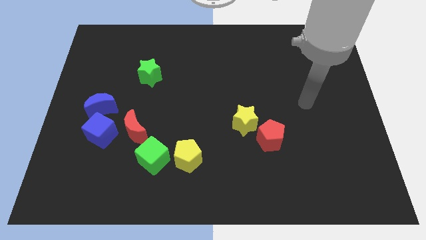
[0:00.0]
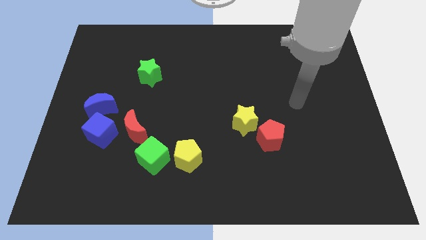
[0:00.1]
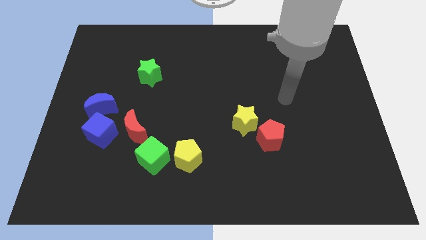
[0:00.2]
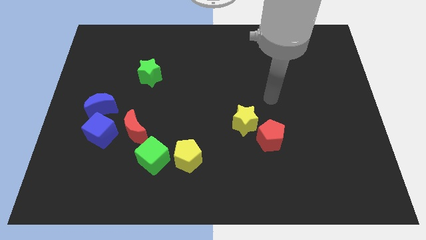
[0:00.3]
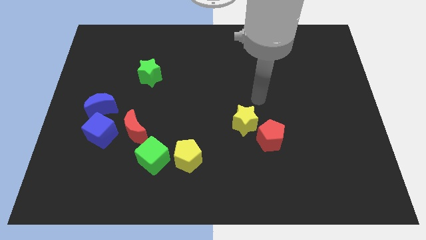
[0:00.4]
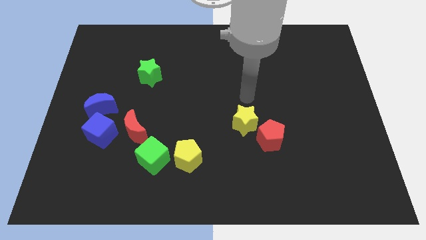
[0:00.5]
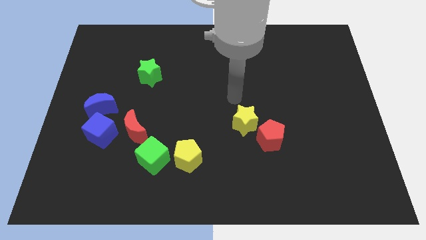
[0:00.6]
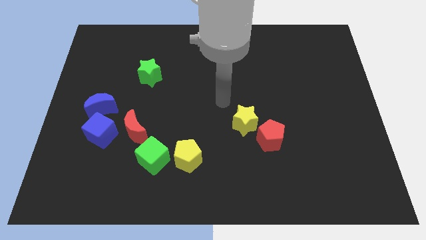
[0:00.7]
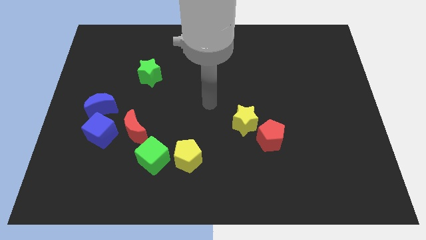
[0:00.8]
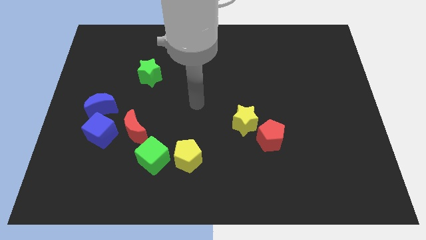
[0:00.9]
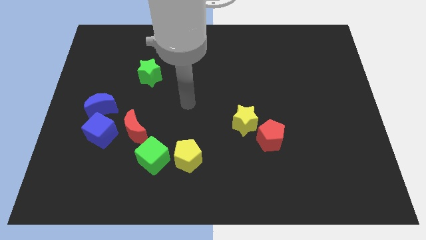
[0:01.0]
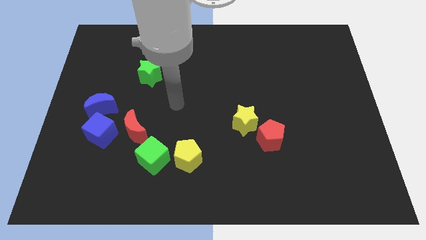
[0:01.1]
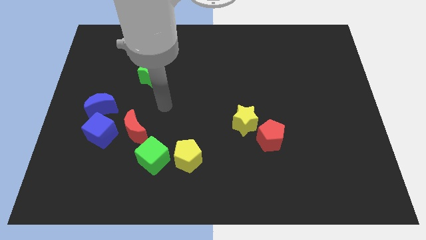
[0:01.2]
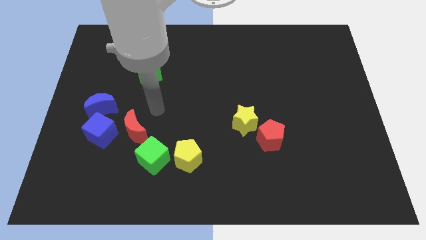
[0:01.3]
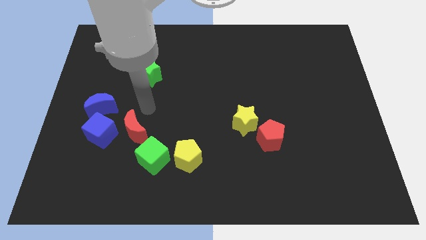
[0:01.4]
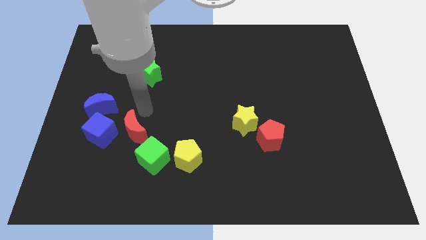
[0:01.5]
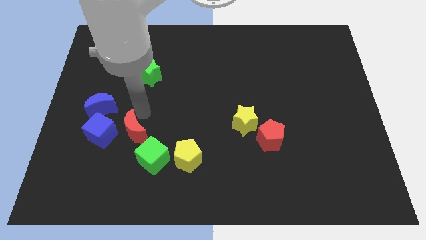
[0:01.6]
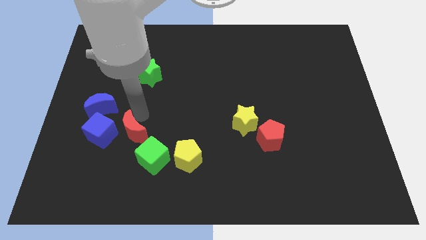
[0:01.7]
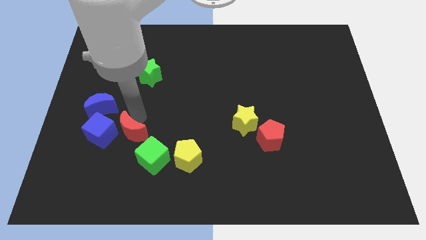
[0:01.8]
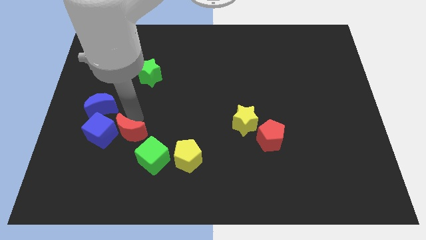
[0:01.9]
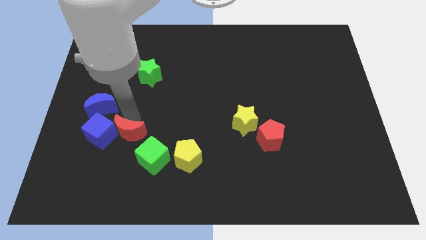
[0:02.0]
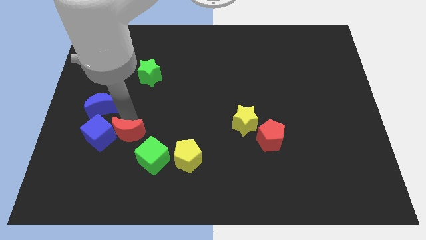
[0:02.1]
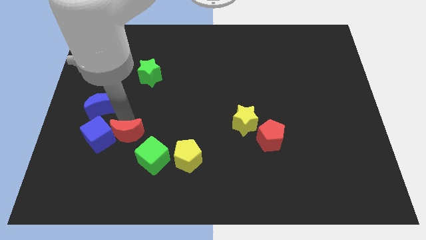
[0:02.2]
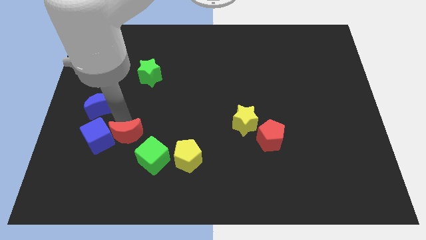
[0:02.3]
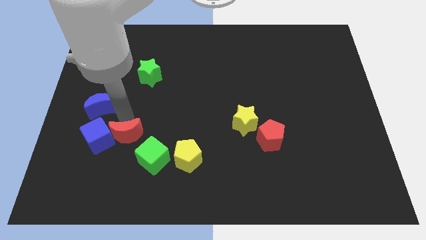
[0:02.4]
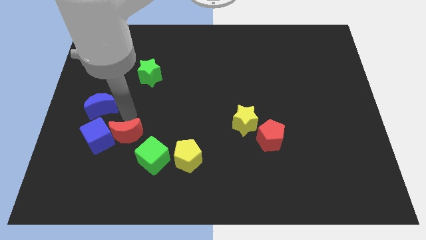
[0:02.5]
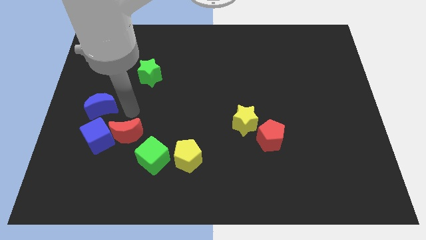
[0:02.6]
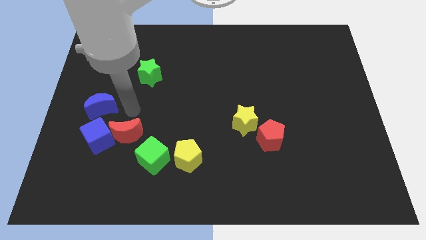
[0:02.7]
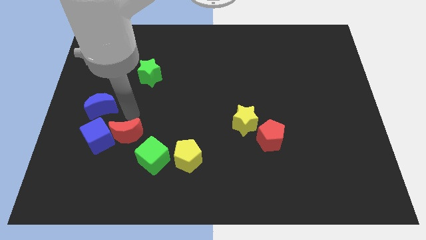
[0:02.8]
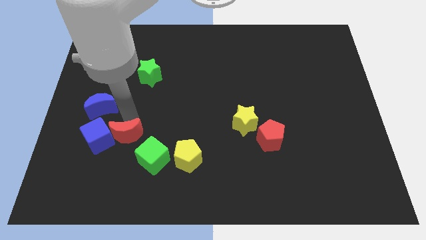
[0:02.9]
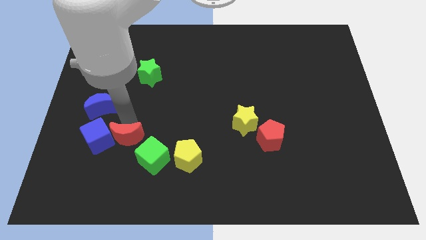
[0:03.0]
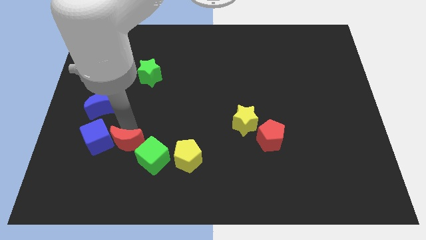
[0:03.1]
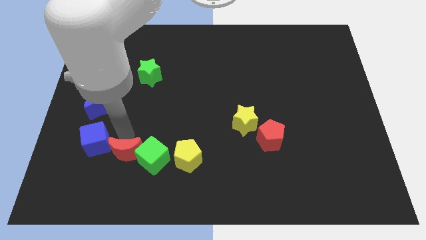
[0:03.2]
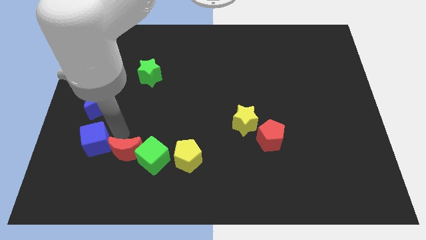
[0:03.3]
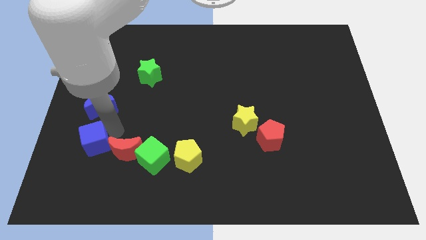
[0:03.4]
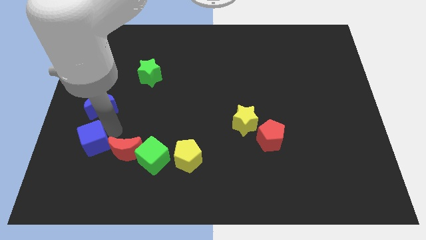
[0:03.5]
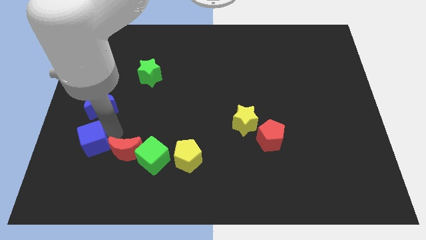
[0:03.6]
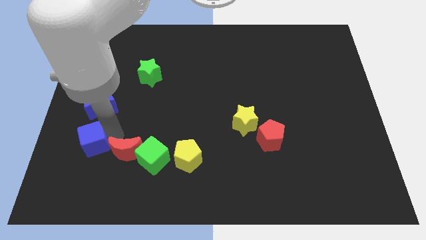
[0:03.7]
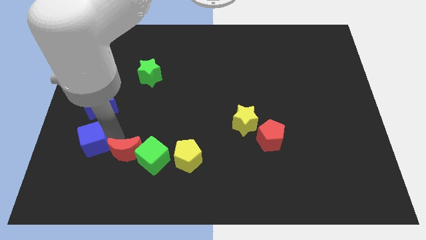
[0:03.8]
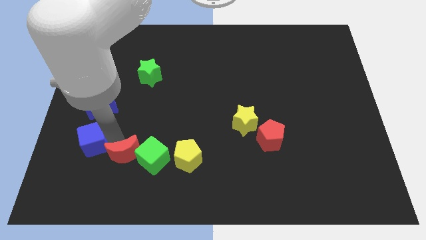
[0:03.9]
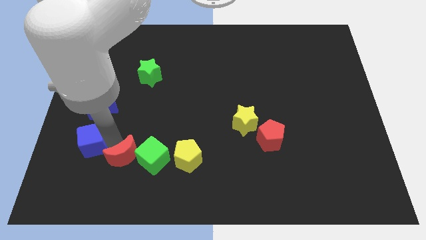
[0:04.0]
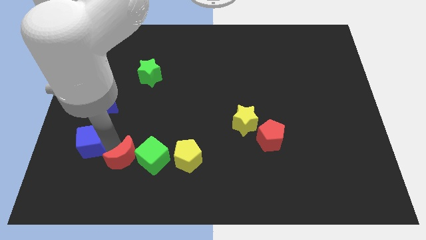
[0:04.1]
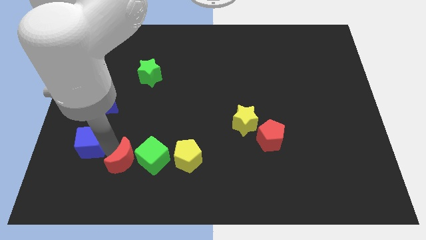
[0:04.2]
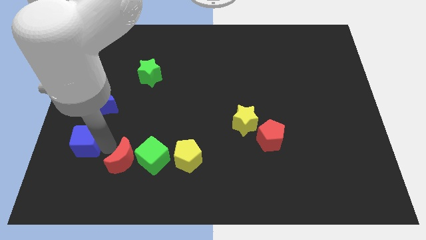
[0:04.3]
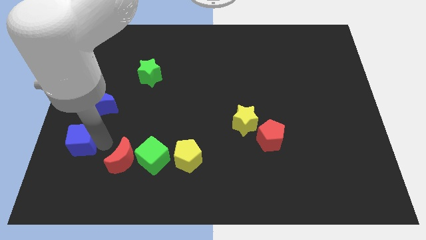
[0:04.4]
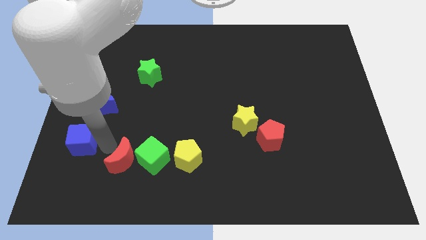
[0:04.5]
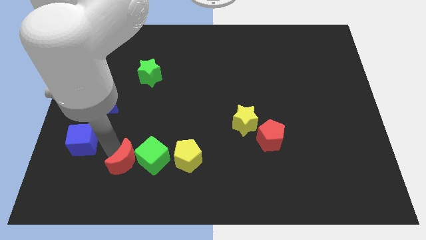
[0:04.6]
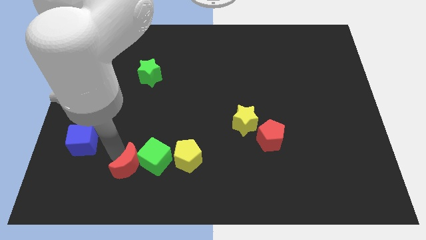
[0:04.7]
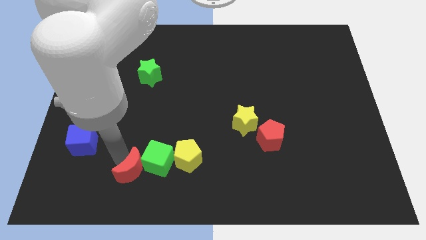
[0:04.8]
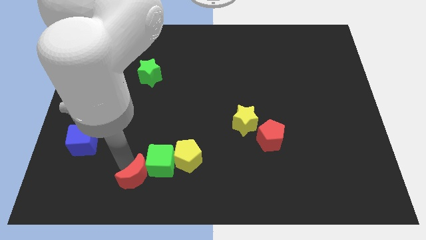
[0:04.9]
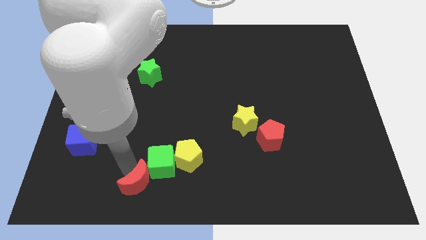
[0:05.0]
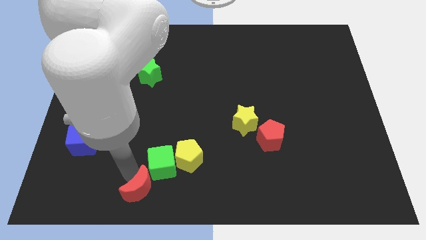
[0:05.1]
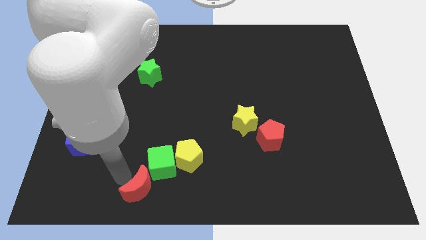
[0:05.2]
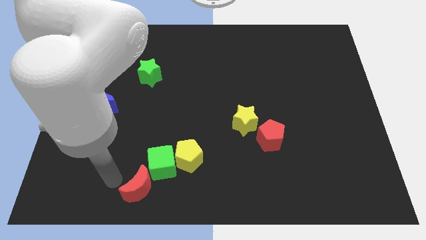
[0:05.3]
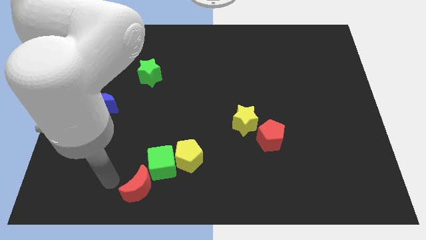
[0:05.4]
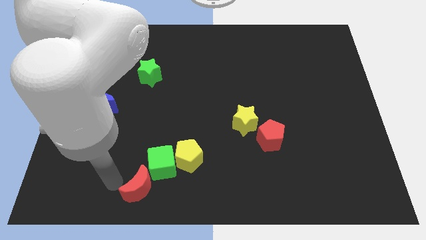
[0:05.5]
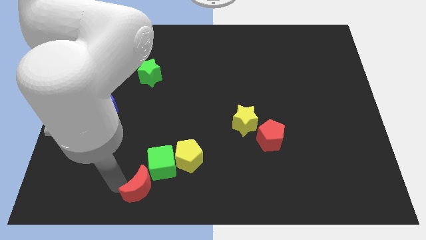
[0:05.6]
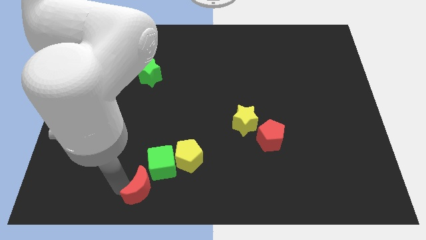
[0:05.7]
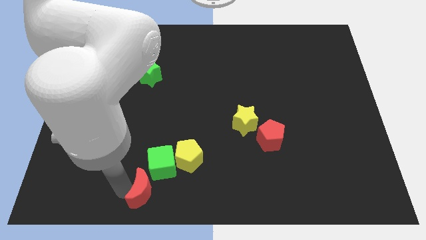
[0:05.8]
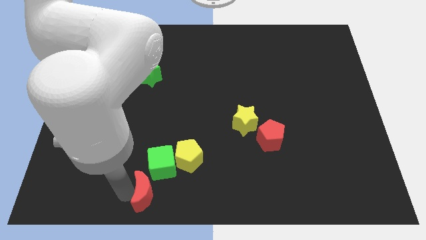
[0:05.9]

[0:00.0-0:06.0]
slide the red moon to the bottom side
